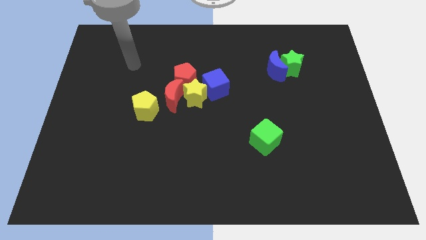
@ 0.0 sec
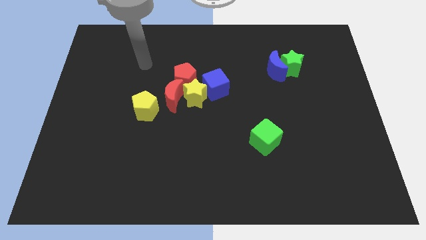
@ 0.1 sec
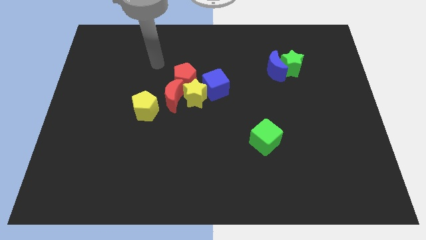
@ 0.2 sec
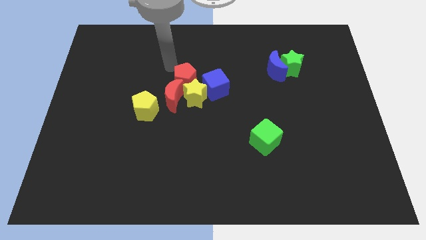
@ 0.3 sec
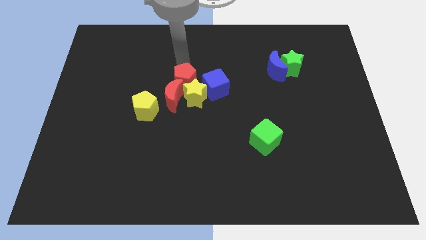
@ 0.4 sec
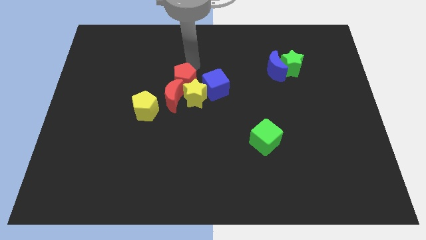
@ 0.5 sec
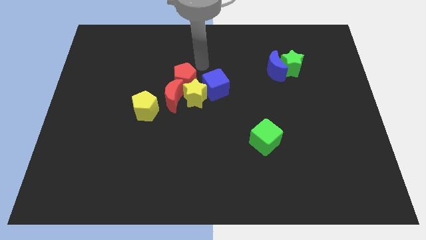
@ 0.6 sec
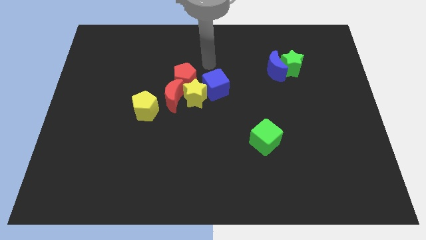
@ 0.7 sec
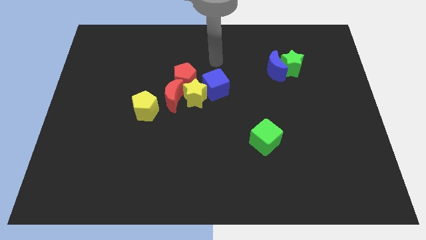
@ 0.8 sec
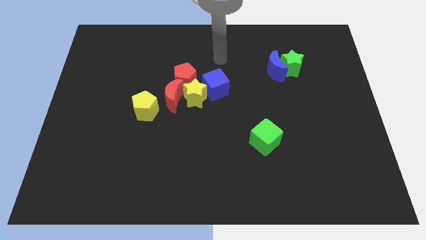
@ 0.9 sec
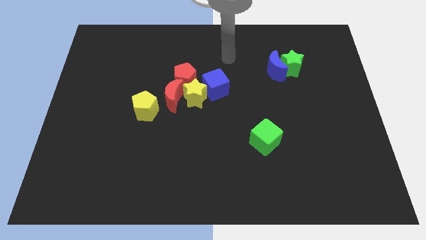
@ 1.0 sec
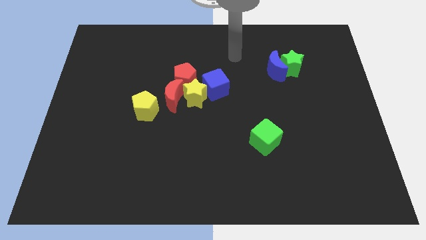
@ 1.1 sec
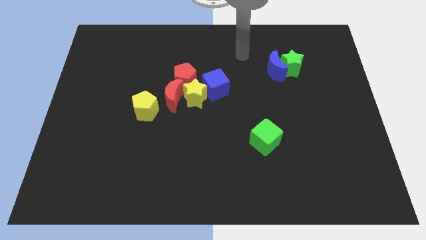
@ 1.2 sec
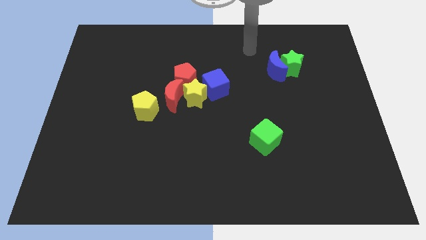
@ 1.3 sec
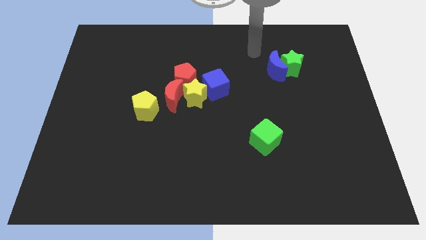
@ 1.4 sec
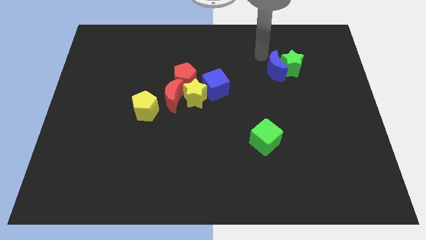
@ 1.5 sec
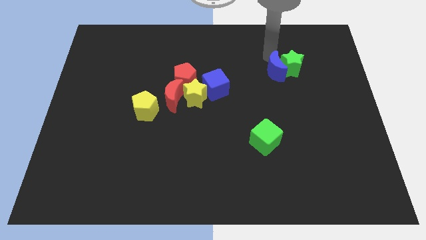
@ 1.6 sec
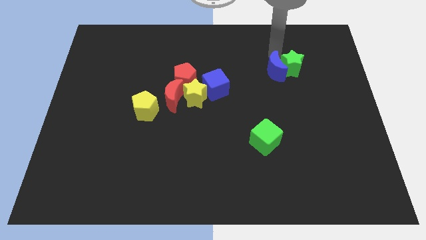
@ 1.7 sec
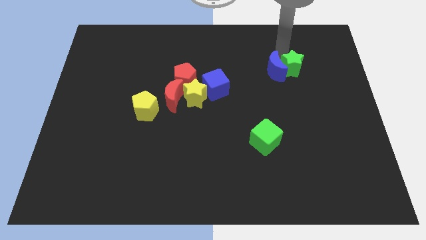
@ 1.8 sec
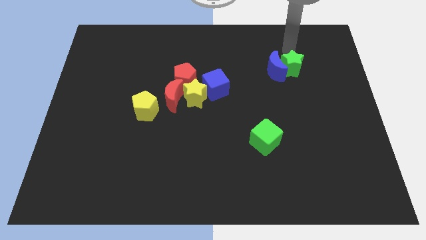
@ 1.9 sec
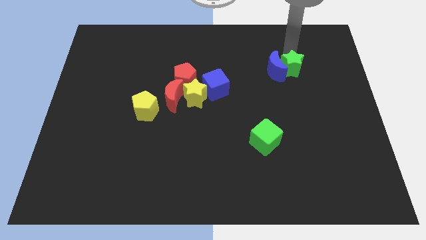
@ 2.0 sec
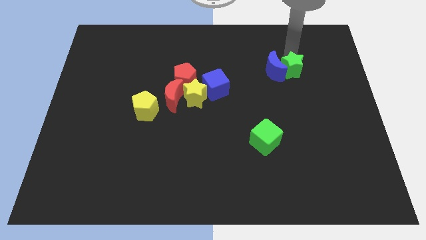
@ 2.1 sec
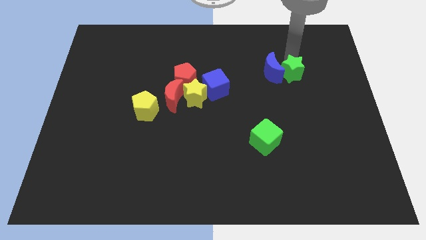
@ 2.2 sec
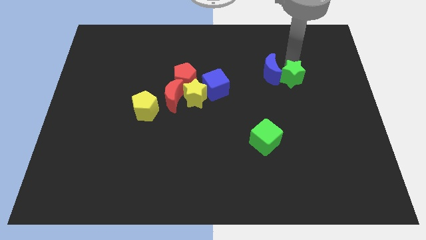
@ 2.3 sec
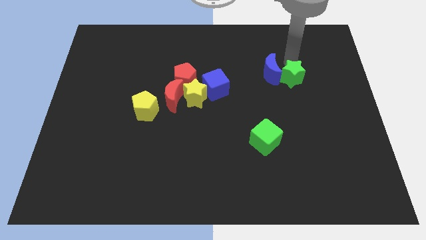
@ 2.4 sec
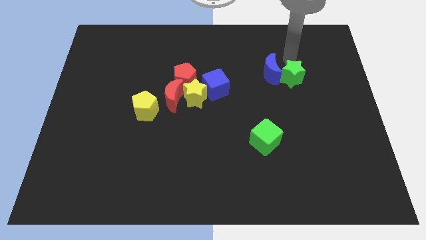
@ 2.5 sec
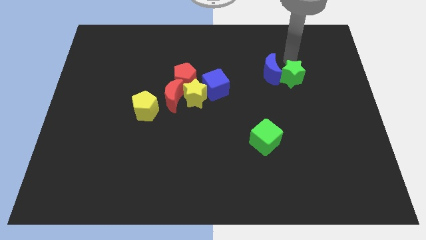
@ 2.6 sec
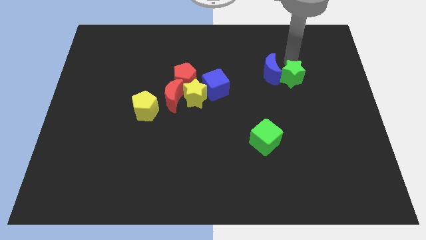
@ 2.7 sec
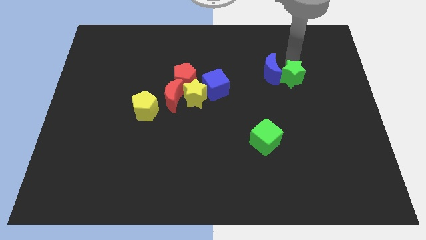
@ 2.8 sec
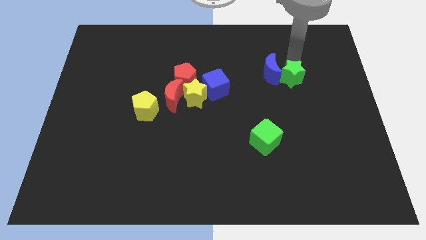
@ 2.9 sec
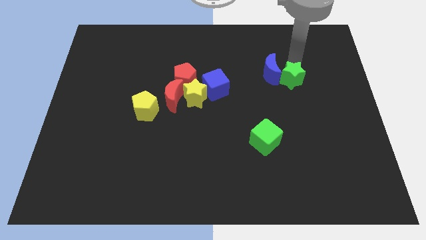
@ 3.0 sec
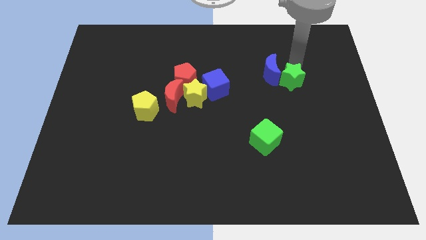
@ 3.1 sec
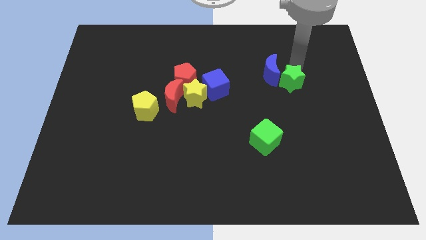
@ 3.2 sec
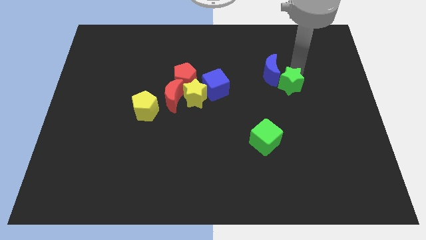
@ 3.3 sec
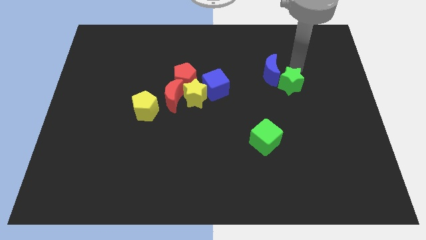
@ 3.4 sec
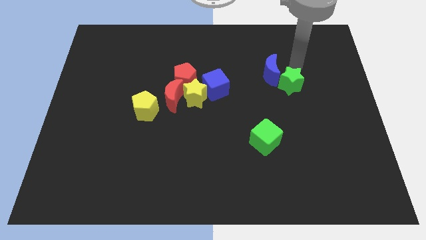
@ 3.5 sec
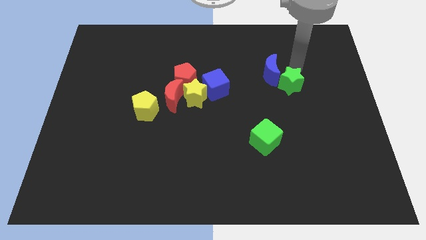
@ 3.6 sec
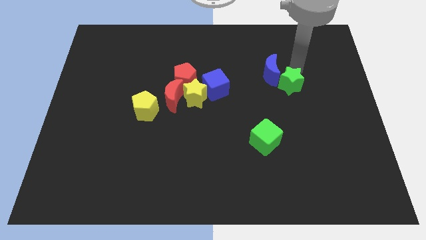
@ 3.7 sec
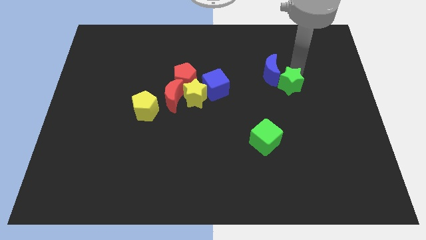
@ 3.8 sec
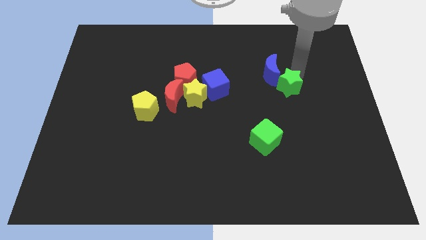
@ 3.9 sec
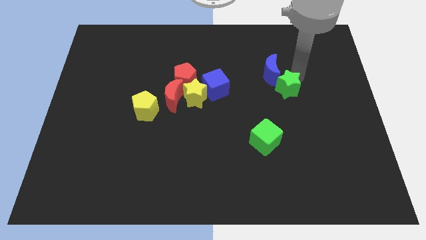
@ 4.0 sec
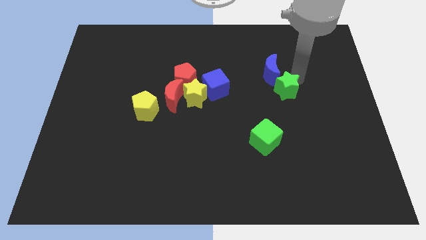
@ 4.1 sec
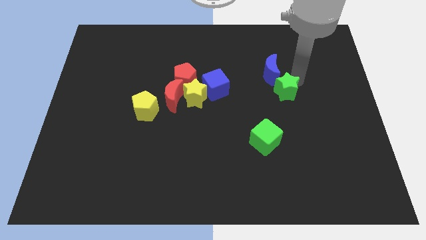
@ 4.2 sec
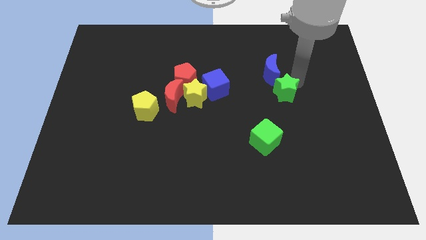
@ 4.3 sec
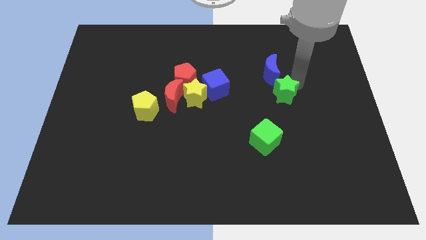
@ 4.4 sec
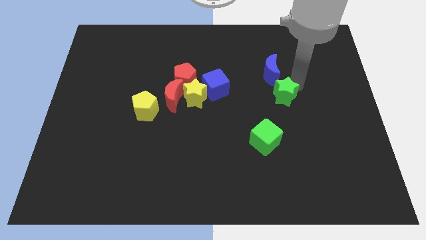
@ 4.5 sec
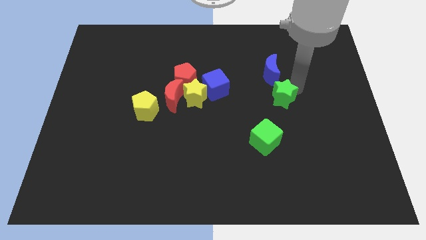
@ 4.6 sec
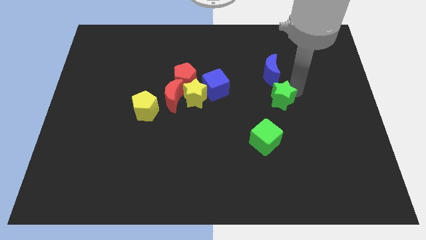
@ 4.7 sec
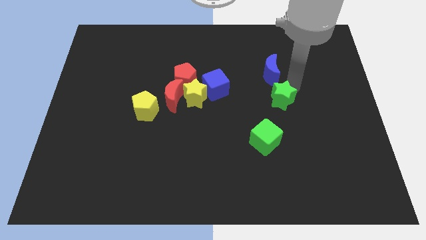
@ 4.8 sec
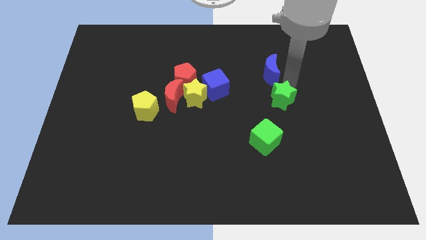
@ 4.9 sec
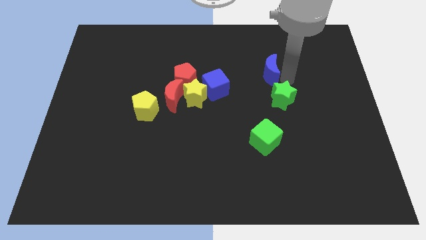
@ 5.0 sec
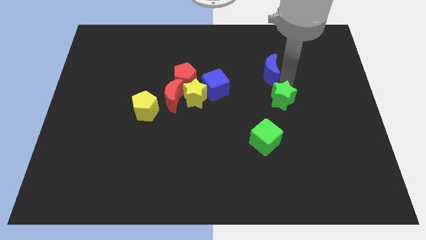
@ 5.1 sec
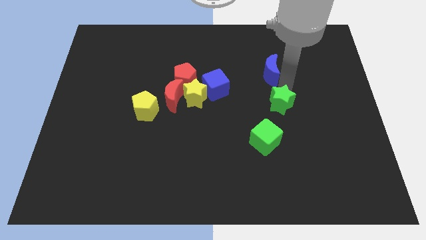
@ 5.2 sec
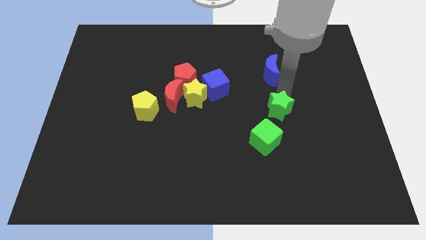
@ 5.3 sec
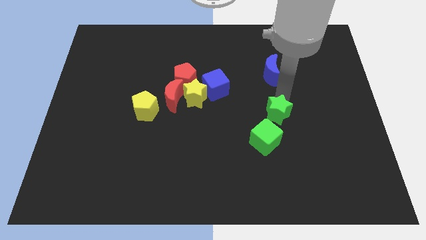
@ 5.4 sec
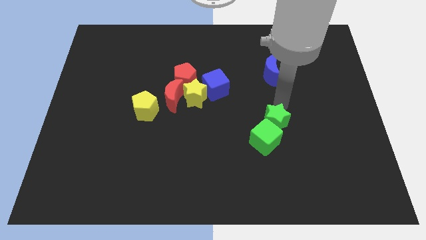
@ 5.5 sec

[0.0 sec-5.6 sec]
push the green star towards the green cube

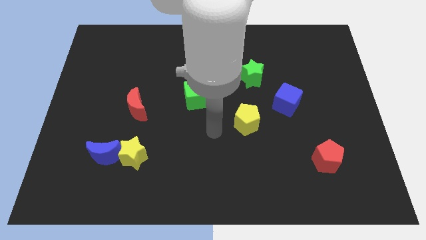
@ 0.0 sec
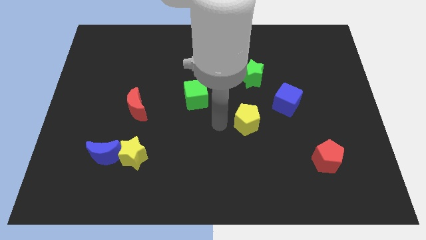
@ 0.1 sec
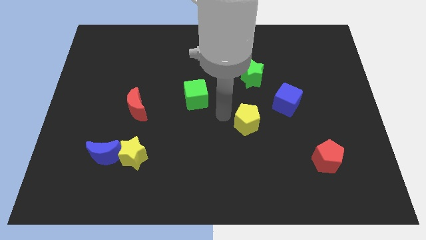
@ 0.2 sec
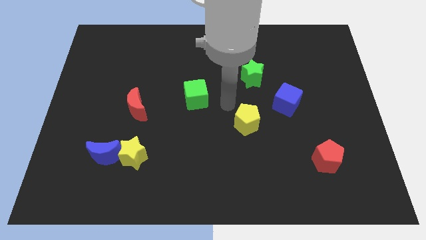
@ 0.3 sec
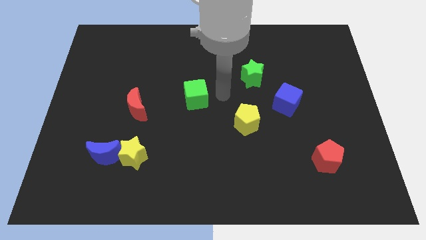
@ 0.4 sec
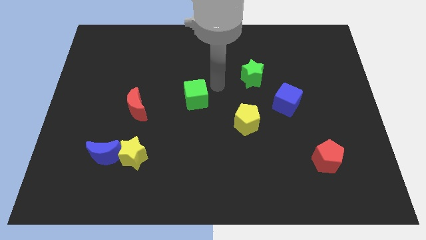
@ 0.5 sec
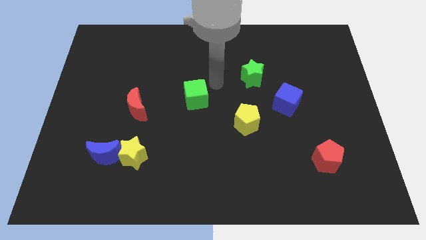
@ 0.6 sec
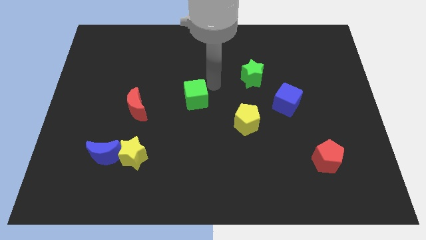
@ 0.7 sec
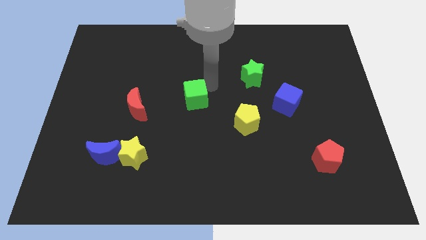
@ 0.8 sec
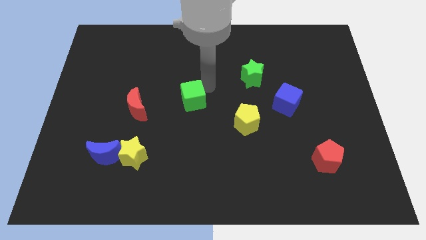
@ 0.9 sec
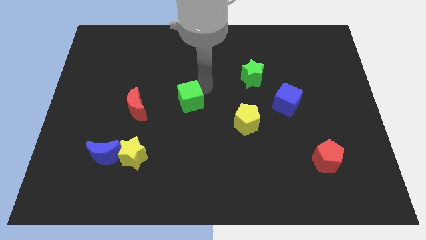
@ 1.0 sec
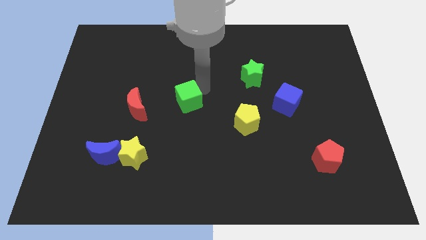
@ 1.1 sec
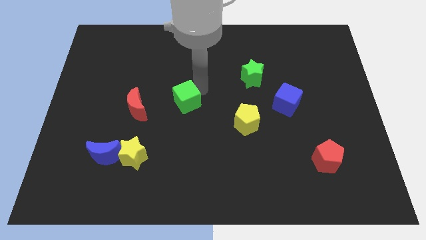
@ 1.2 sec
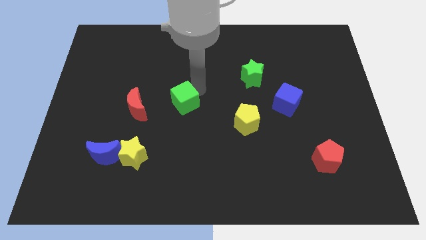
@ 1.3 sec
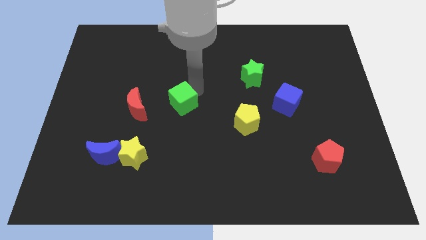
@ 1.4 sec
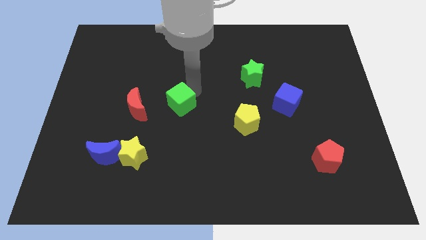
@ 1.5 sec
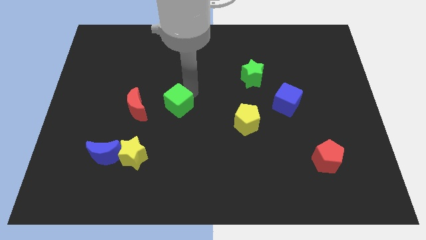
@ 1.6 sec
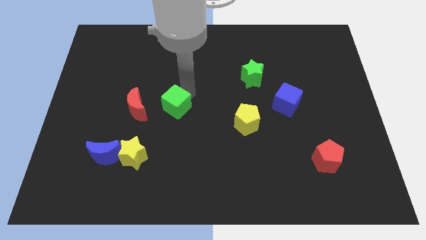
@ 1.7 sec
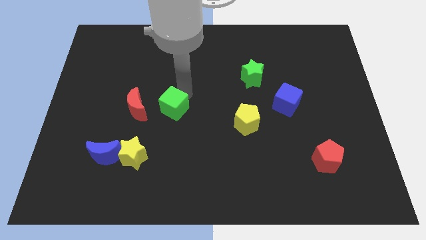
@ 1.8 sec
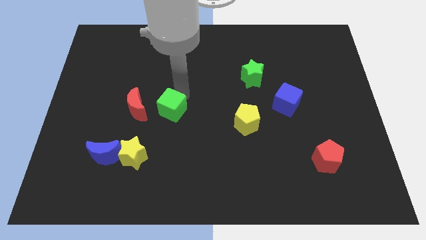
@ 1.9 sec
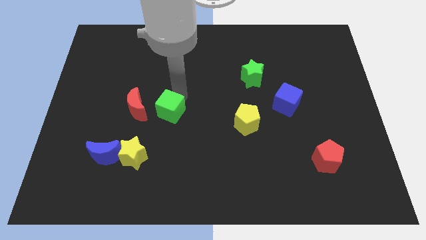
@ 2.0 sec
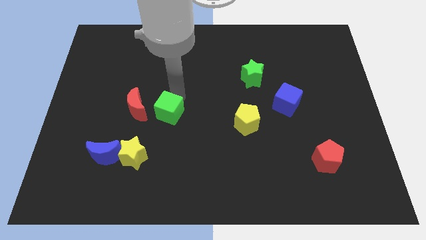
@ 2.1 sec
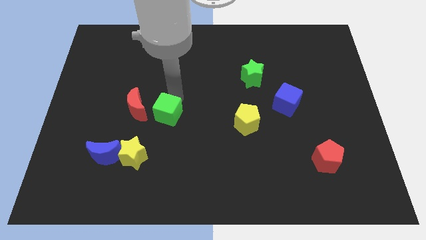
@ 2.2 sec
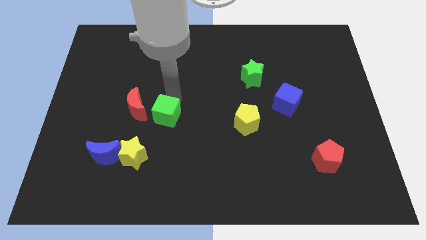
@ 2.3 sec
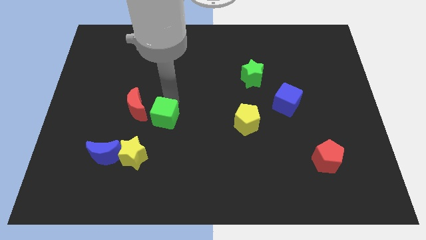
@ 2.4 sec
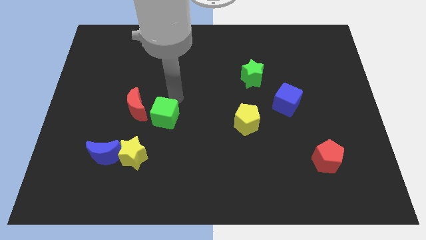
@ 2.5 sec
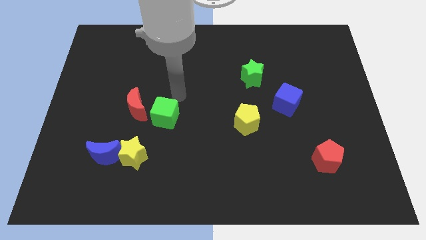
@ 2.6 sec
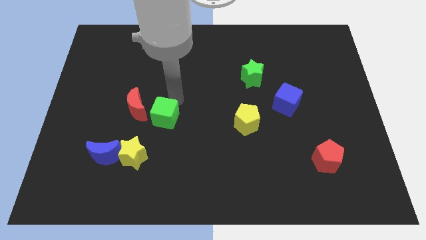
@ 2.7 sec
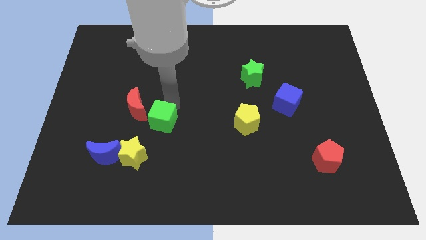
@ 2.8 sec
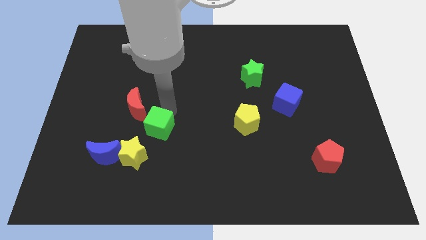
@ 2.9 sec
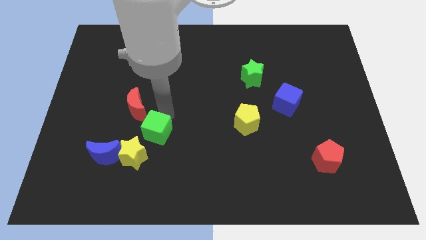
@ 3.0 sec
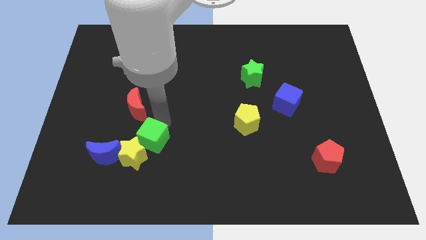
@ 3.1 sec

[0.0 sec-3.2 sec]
move the green cube to the yellow star
